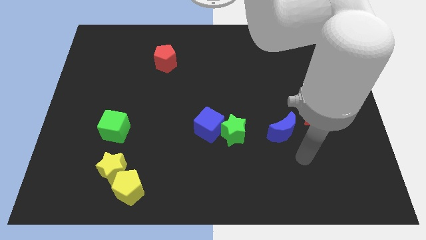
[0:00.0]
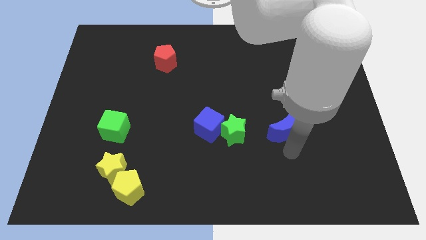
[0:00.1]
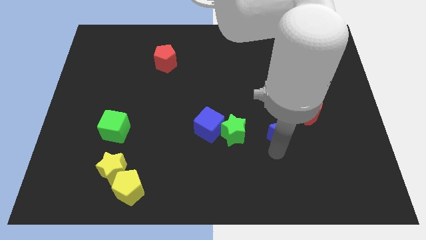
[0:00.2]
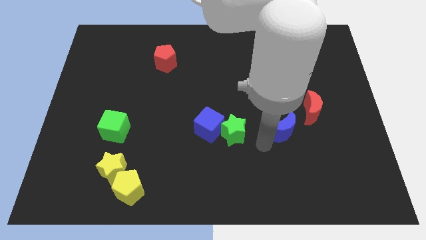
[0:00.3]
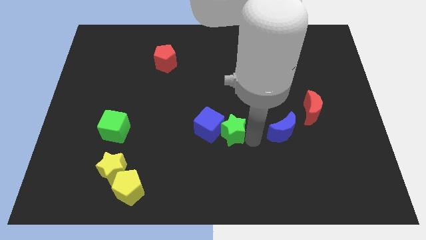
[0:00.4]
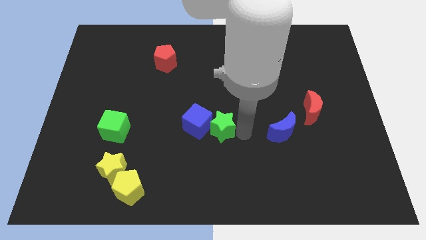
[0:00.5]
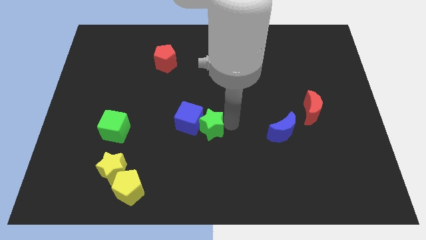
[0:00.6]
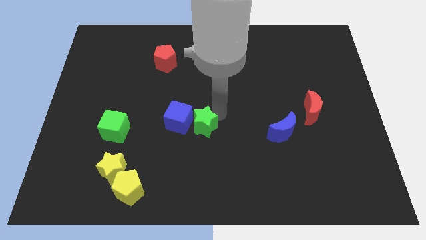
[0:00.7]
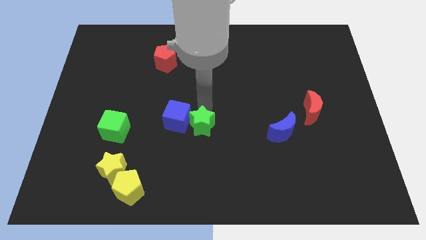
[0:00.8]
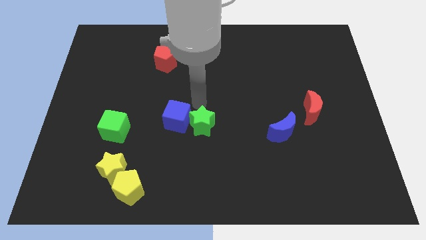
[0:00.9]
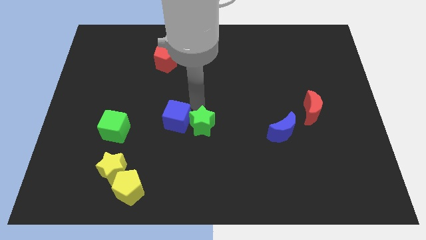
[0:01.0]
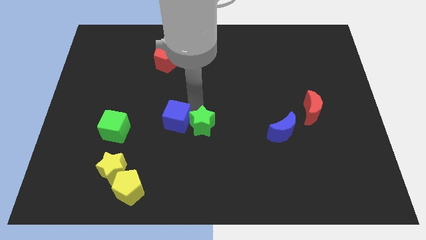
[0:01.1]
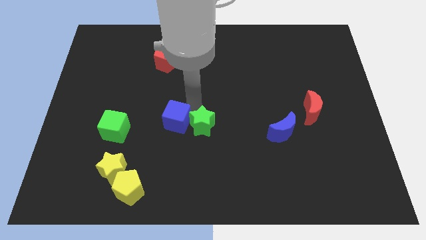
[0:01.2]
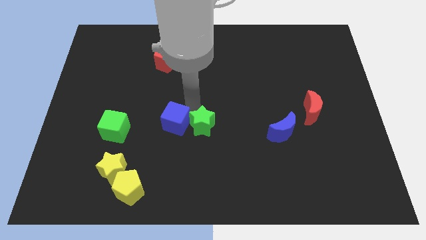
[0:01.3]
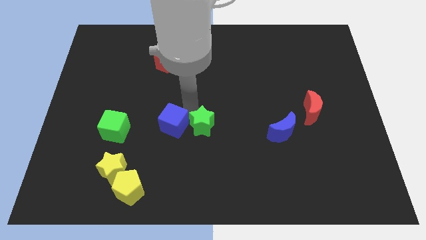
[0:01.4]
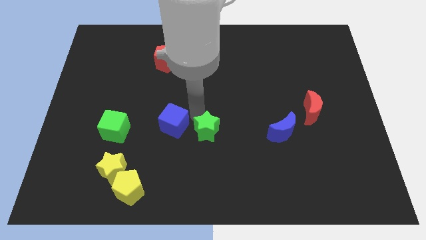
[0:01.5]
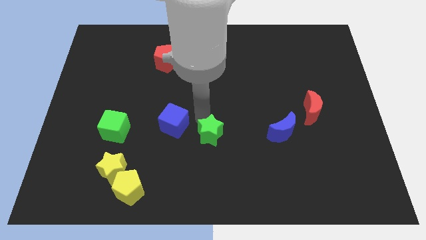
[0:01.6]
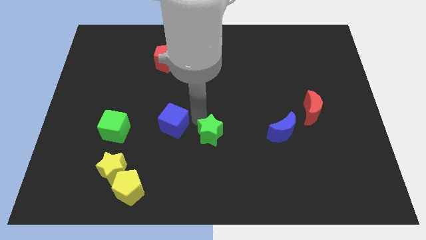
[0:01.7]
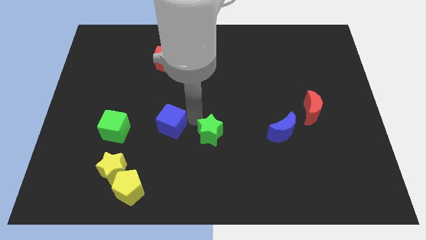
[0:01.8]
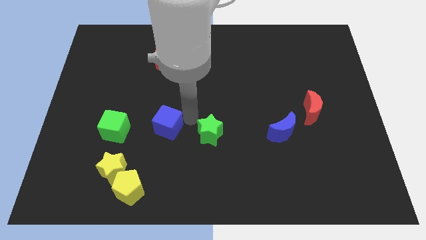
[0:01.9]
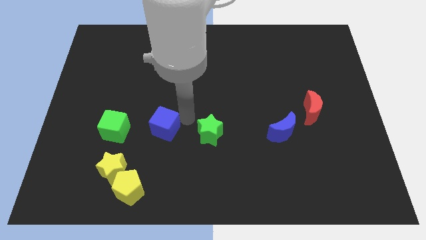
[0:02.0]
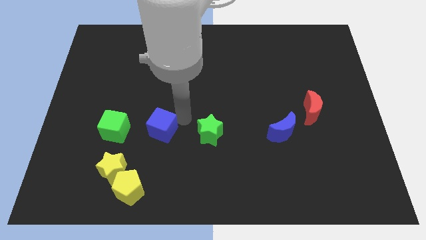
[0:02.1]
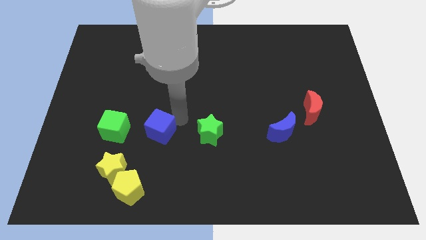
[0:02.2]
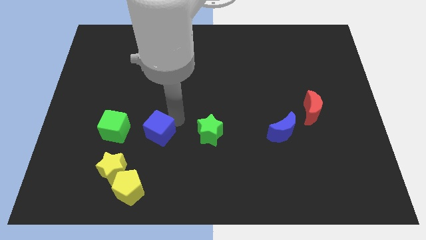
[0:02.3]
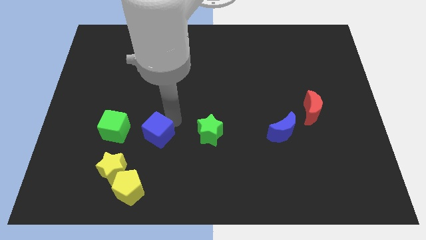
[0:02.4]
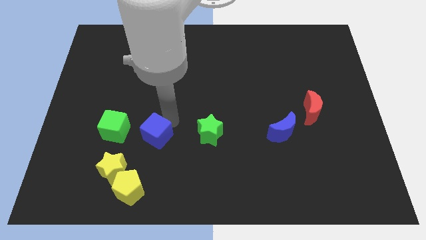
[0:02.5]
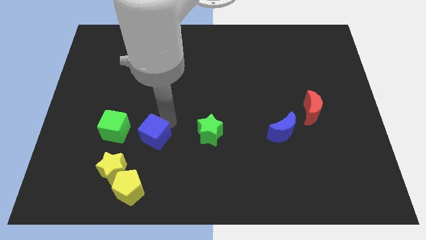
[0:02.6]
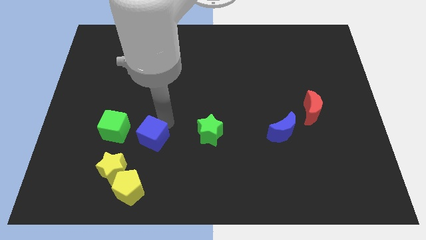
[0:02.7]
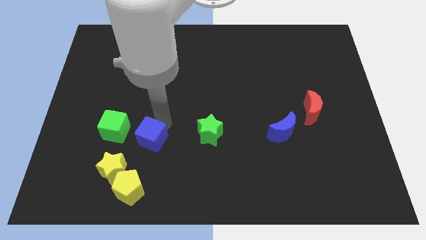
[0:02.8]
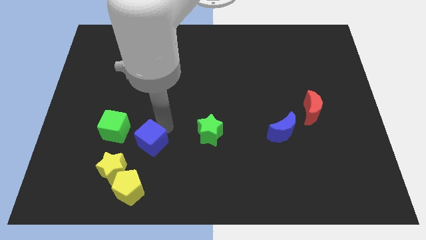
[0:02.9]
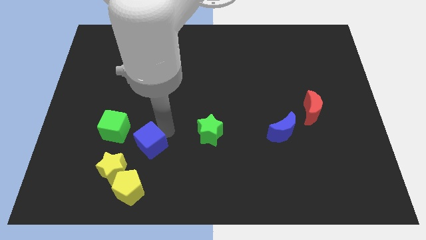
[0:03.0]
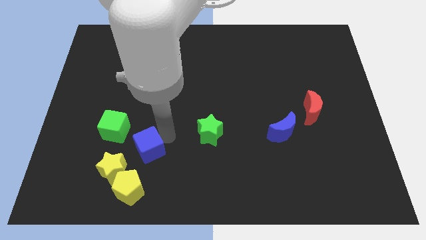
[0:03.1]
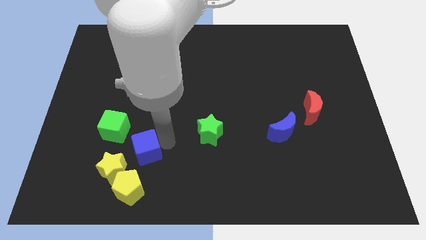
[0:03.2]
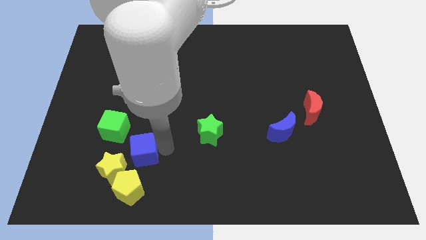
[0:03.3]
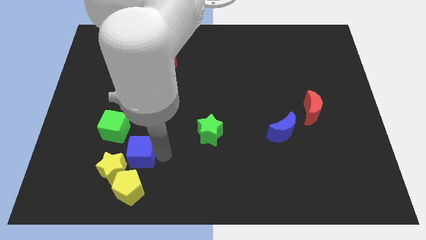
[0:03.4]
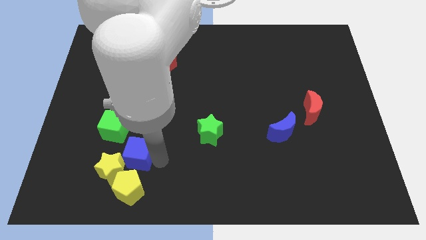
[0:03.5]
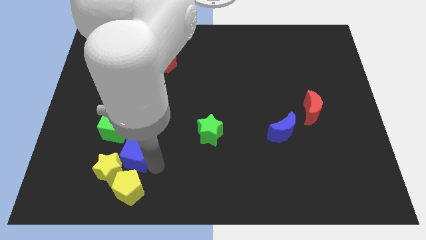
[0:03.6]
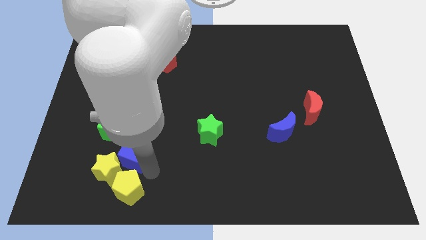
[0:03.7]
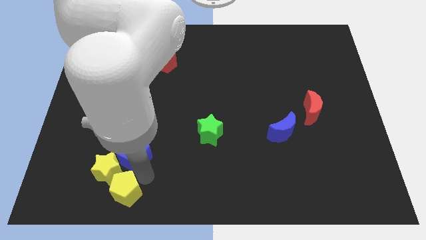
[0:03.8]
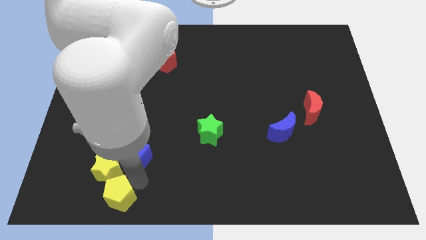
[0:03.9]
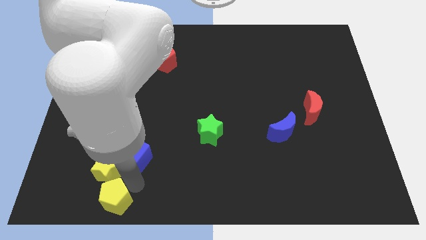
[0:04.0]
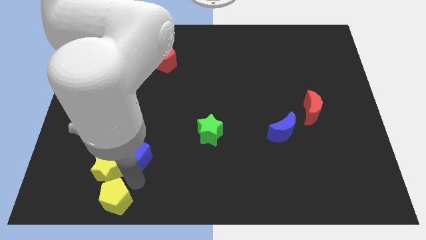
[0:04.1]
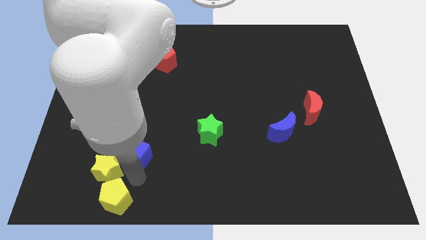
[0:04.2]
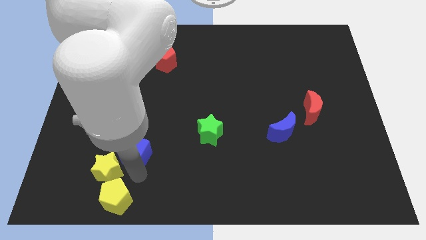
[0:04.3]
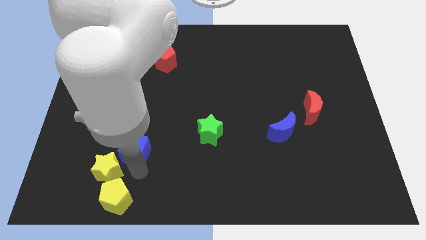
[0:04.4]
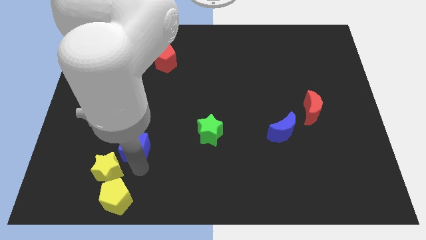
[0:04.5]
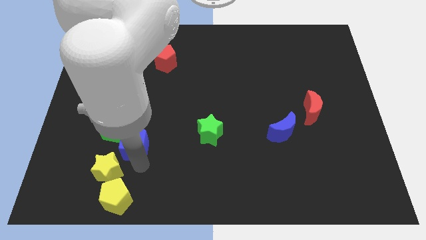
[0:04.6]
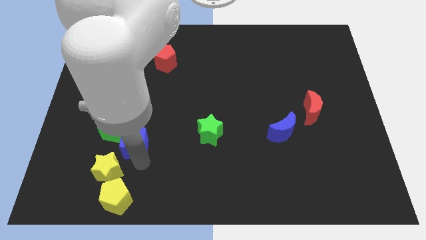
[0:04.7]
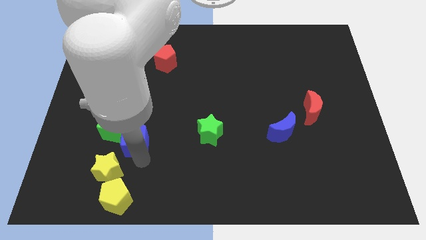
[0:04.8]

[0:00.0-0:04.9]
slide the blue cube next to the green cube

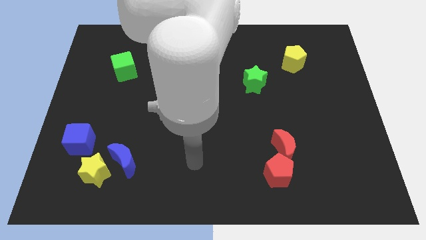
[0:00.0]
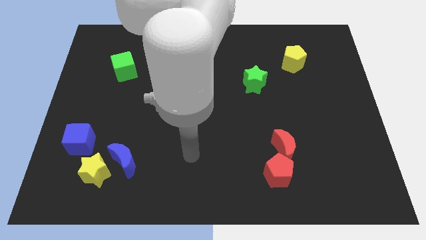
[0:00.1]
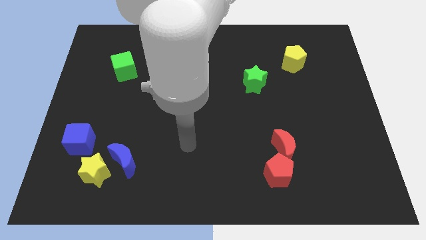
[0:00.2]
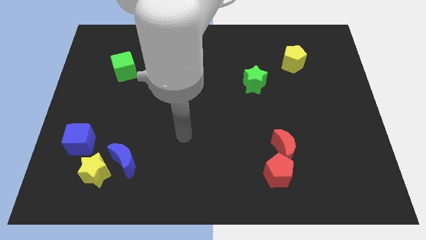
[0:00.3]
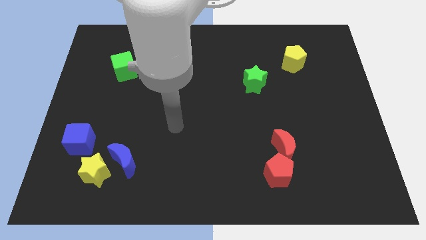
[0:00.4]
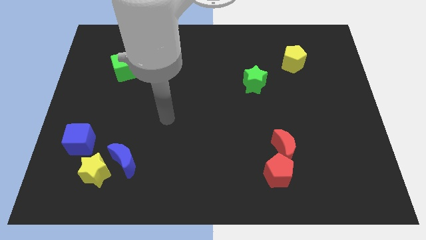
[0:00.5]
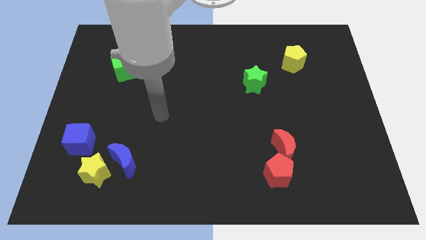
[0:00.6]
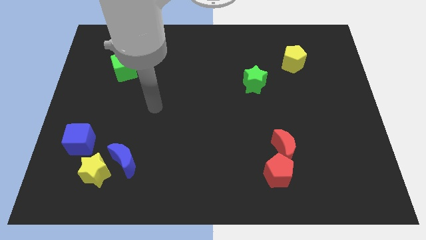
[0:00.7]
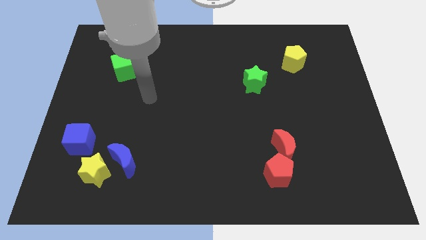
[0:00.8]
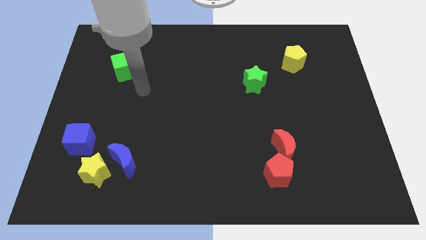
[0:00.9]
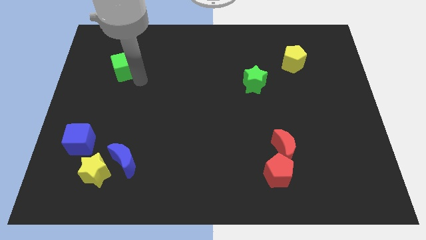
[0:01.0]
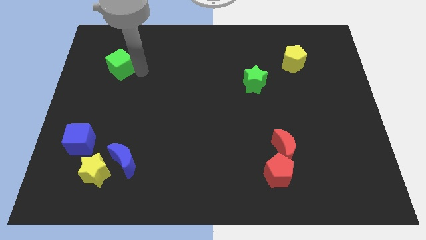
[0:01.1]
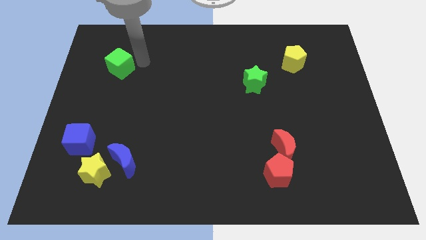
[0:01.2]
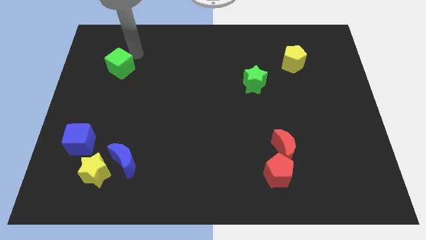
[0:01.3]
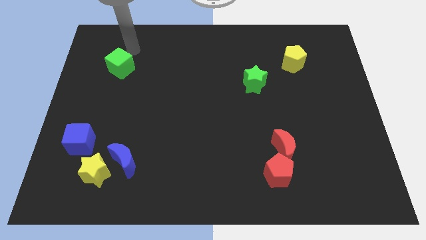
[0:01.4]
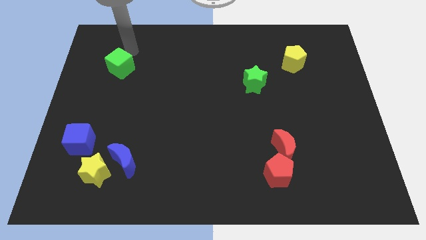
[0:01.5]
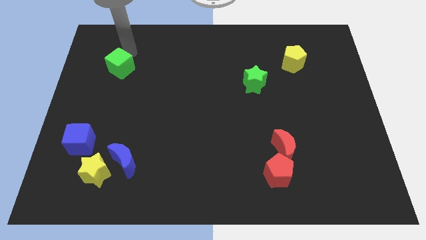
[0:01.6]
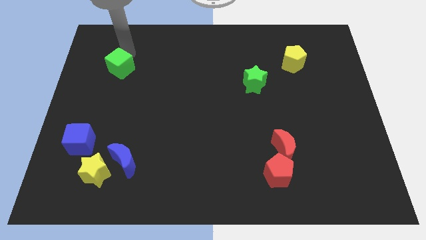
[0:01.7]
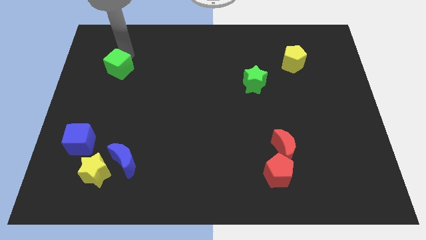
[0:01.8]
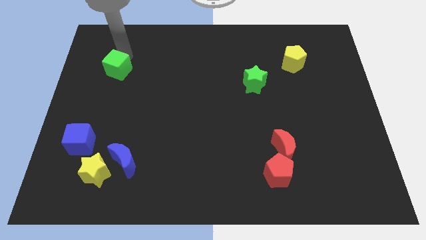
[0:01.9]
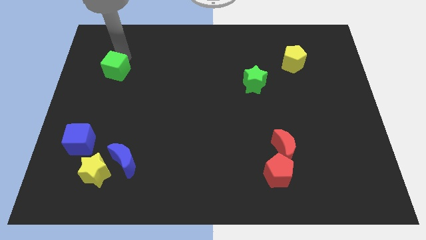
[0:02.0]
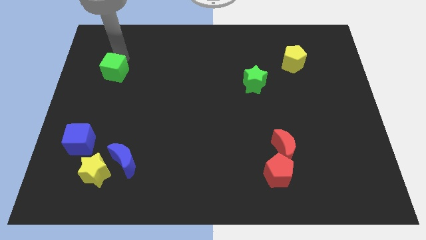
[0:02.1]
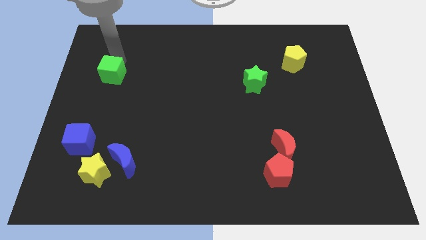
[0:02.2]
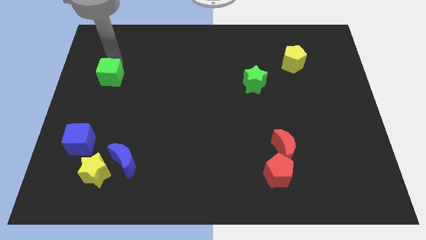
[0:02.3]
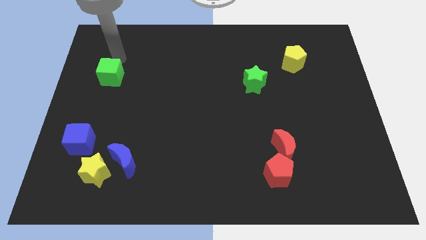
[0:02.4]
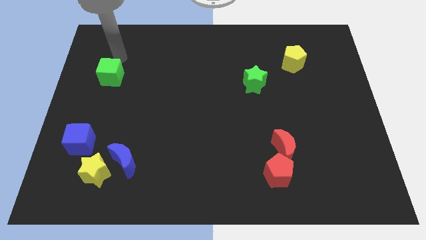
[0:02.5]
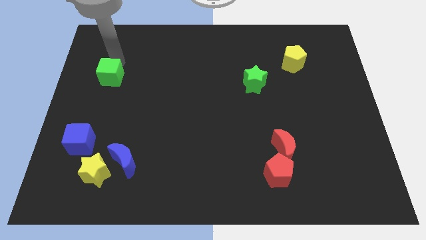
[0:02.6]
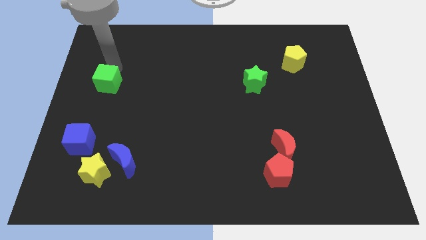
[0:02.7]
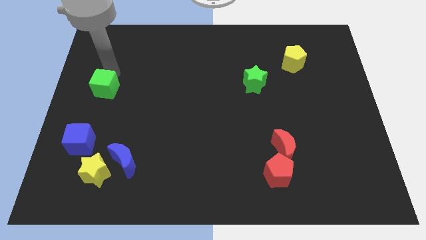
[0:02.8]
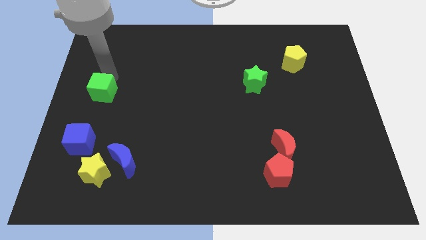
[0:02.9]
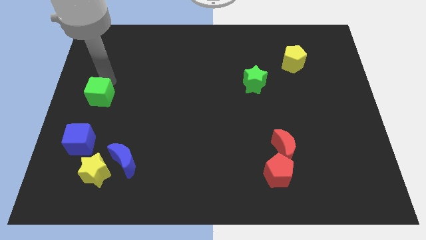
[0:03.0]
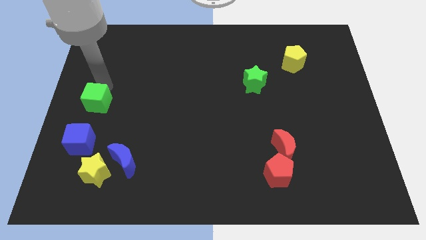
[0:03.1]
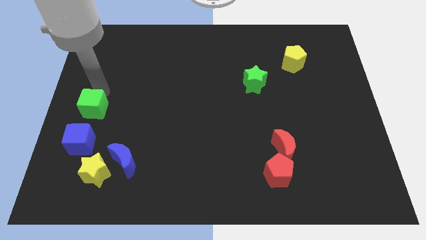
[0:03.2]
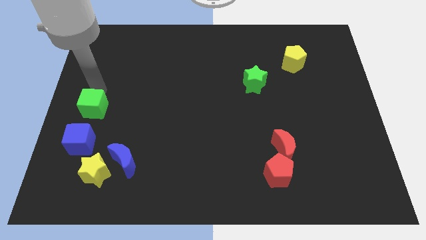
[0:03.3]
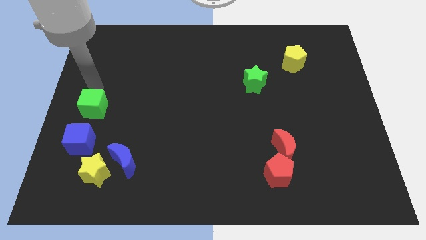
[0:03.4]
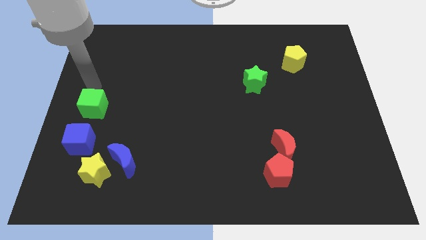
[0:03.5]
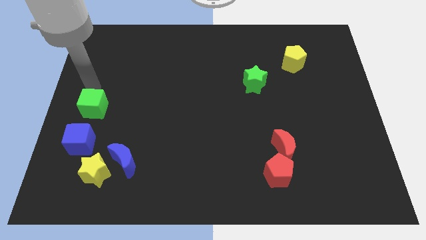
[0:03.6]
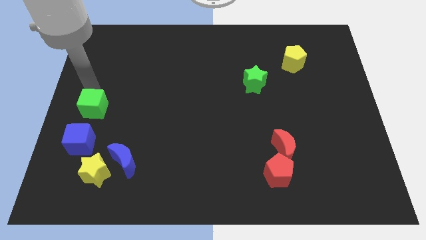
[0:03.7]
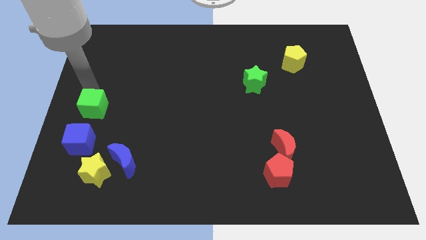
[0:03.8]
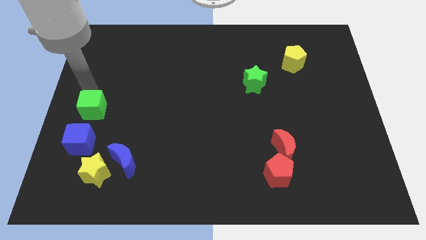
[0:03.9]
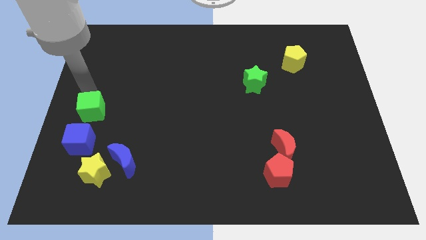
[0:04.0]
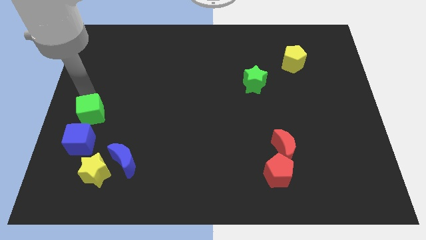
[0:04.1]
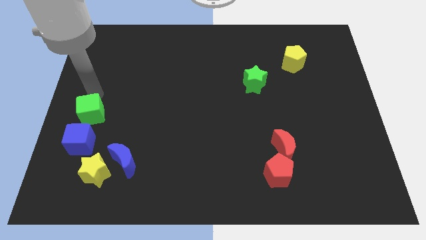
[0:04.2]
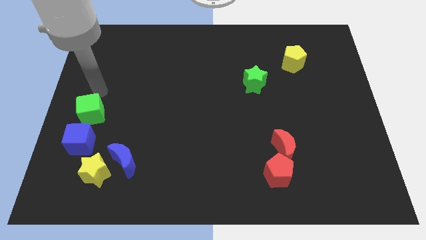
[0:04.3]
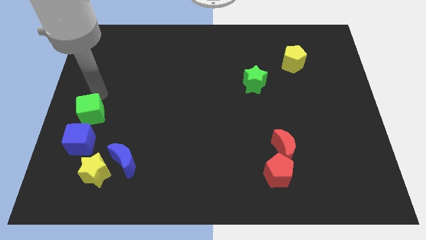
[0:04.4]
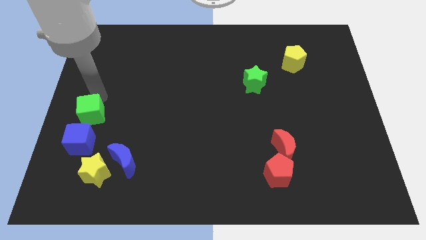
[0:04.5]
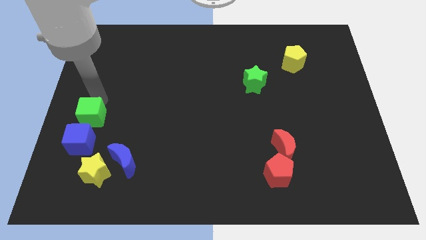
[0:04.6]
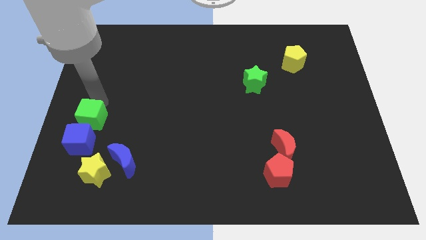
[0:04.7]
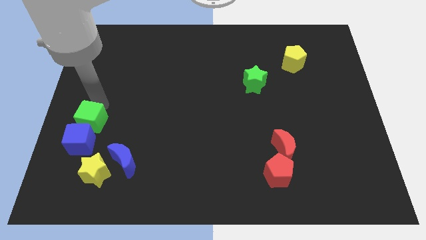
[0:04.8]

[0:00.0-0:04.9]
push the green cube next to the blue cube
